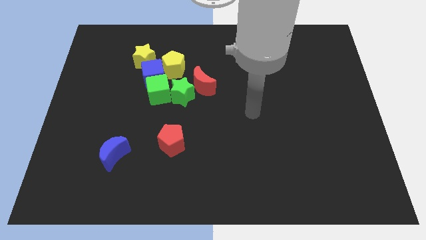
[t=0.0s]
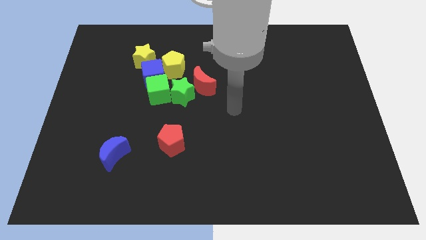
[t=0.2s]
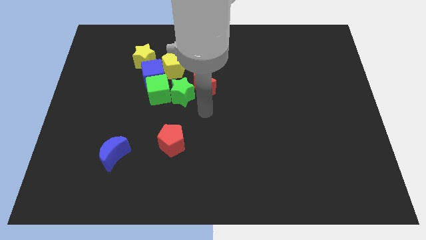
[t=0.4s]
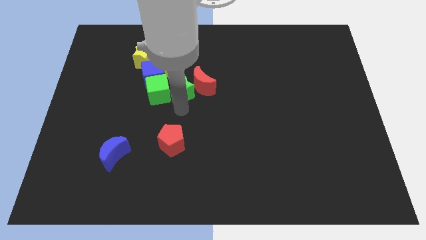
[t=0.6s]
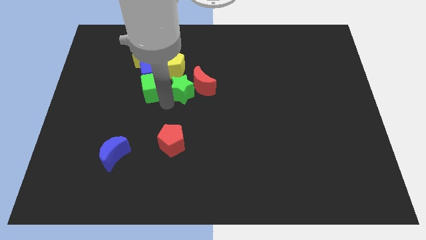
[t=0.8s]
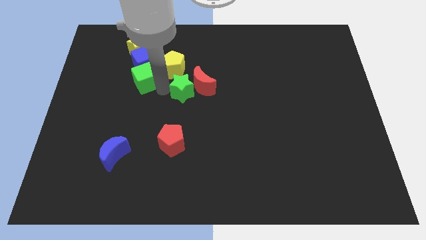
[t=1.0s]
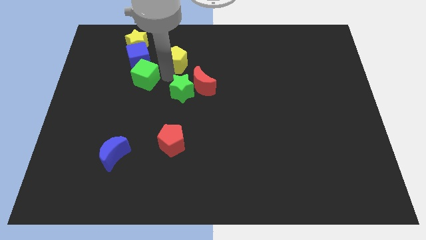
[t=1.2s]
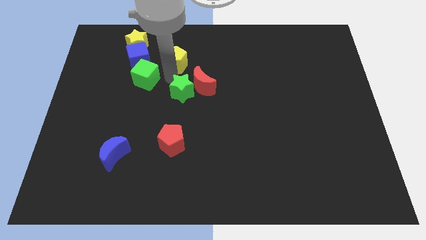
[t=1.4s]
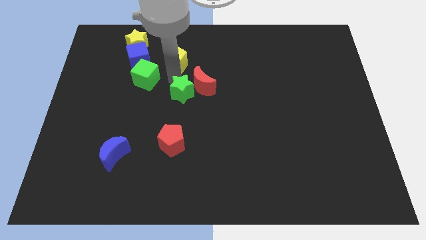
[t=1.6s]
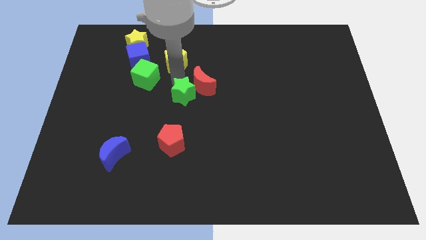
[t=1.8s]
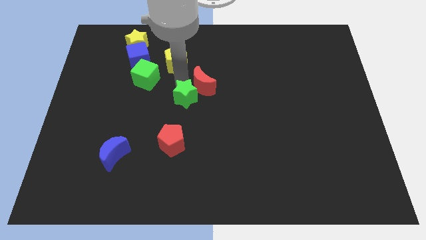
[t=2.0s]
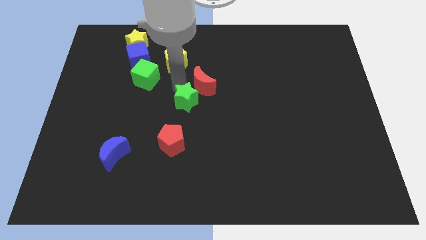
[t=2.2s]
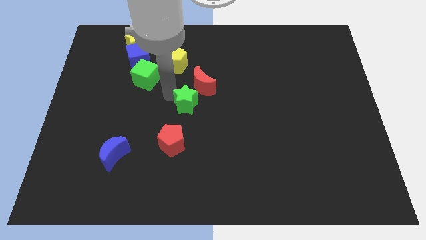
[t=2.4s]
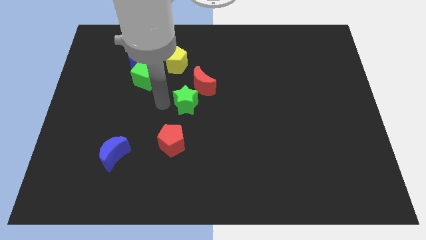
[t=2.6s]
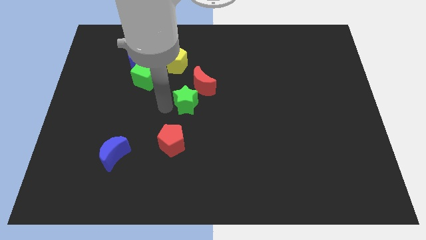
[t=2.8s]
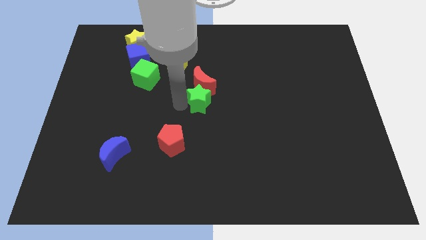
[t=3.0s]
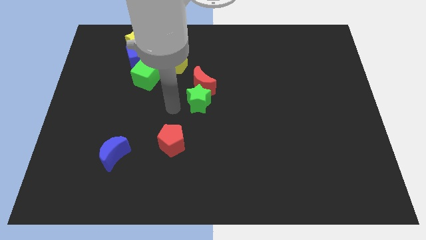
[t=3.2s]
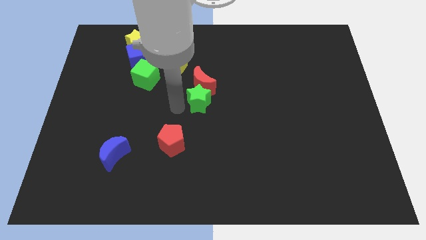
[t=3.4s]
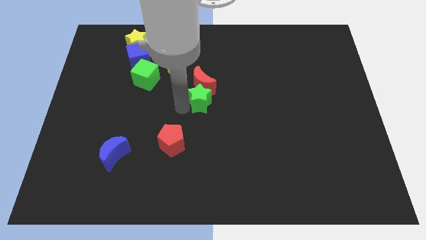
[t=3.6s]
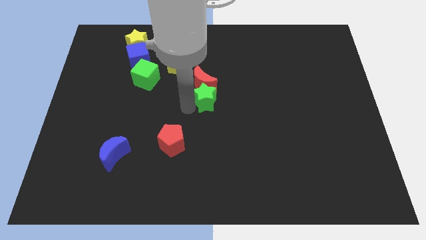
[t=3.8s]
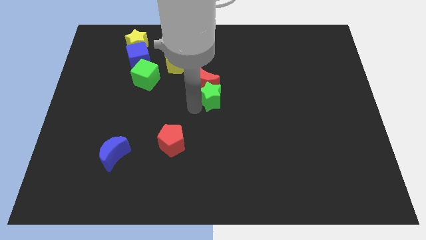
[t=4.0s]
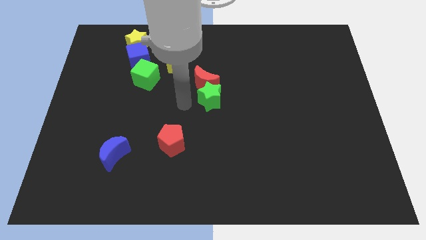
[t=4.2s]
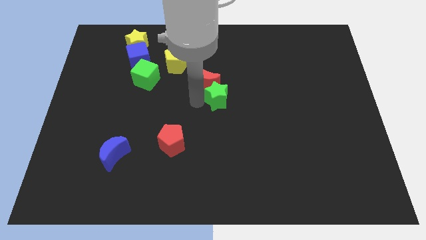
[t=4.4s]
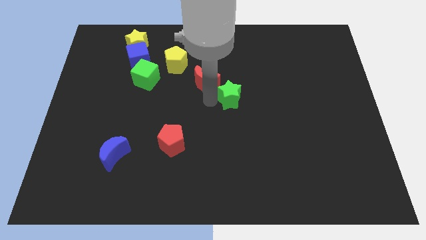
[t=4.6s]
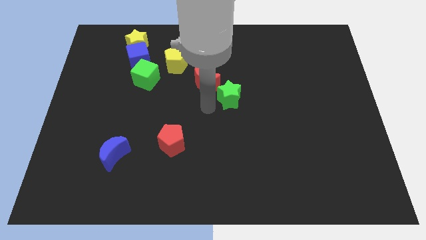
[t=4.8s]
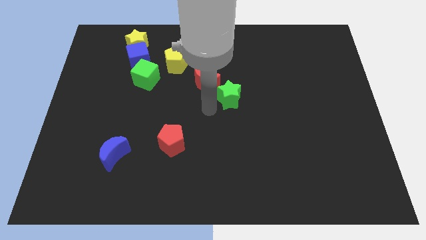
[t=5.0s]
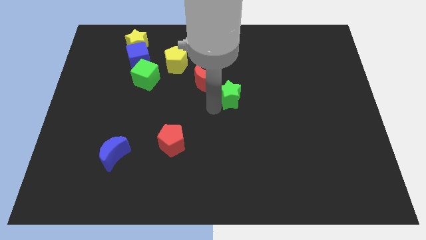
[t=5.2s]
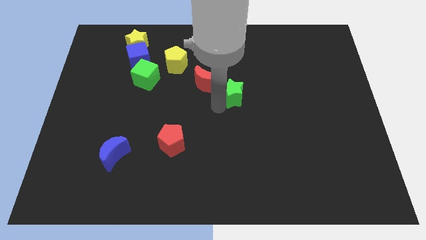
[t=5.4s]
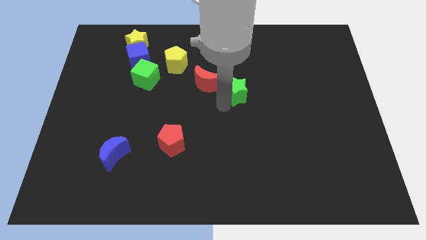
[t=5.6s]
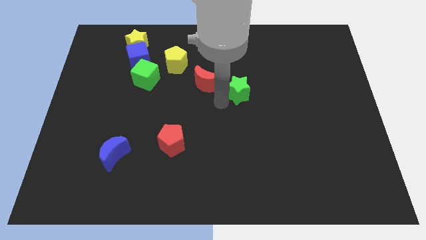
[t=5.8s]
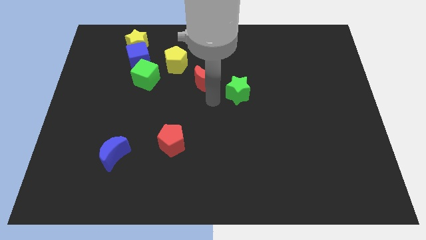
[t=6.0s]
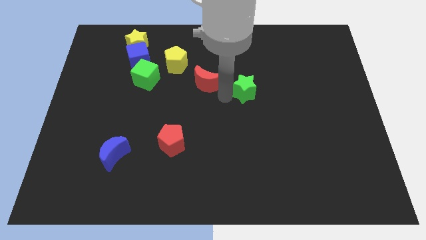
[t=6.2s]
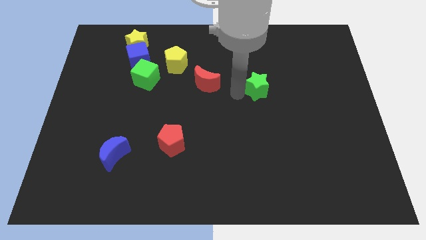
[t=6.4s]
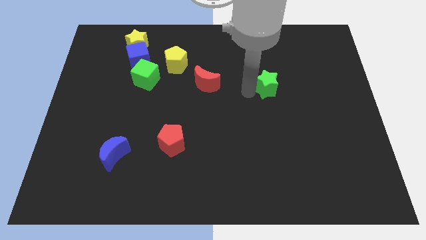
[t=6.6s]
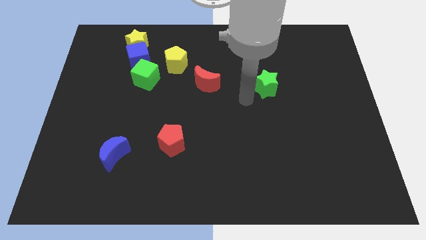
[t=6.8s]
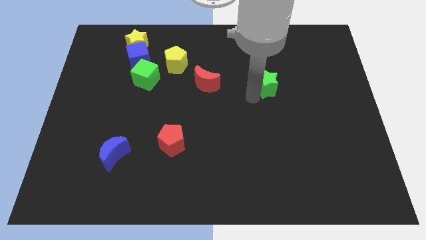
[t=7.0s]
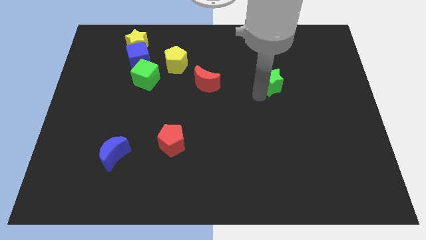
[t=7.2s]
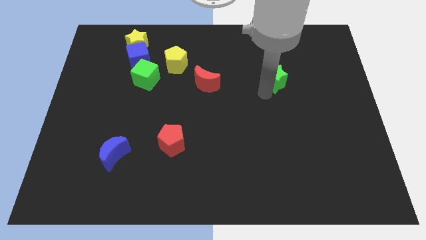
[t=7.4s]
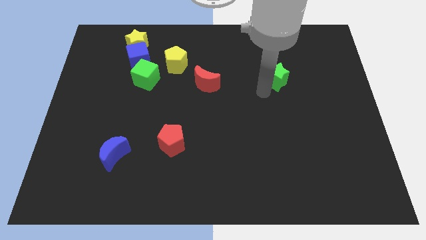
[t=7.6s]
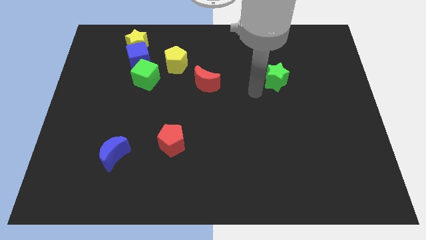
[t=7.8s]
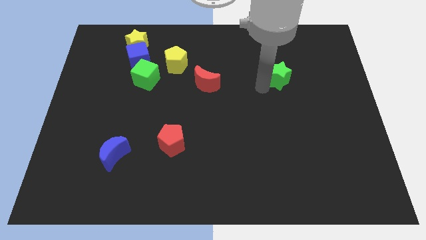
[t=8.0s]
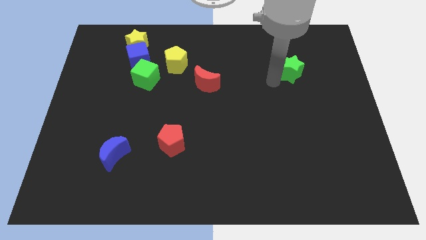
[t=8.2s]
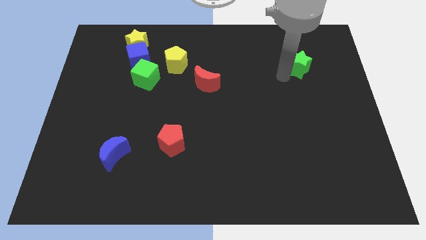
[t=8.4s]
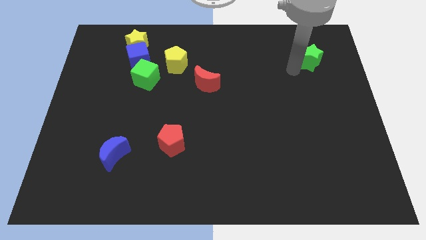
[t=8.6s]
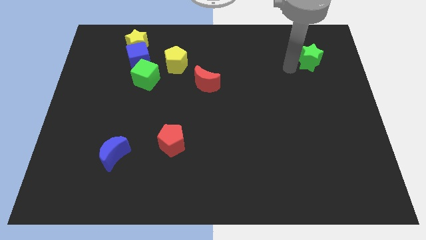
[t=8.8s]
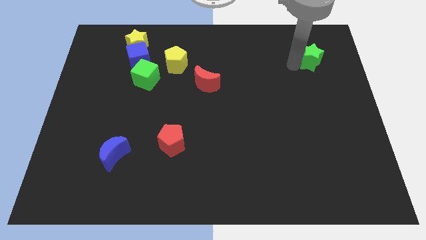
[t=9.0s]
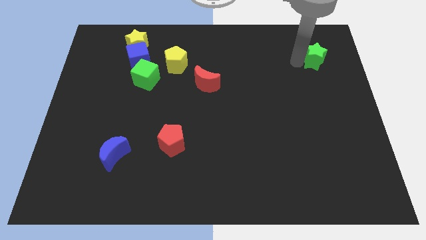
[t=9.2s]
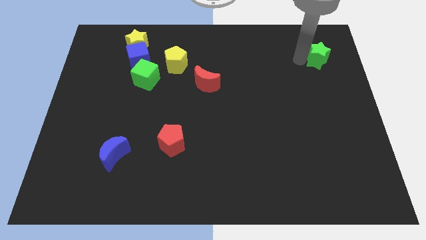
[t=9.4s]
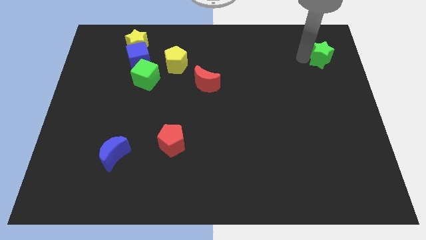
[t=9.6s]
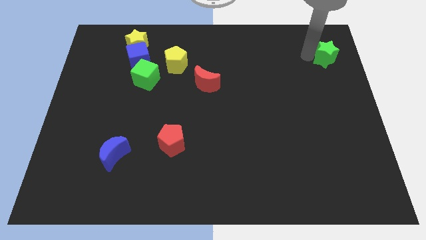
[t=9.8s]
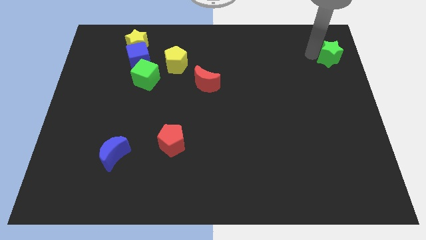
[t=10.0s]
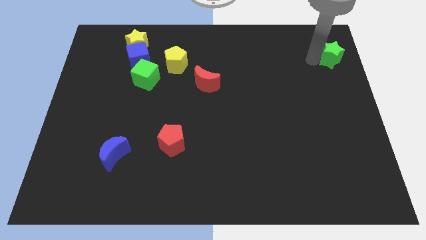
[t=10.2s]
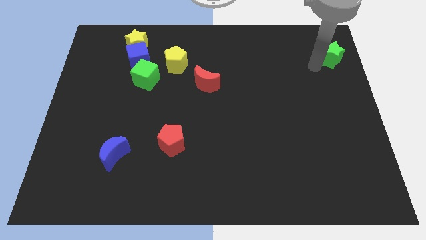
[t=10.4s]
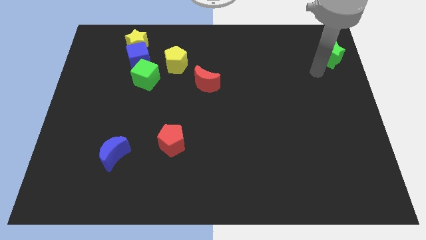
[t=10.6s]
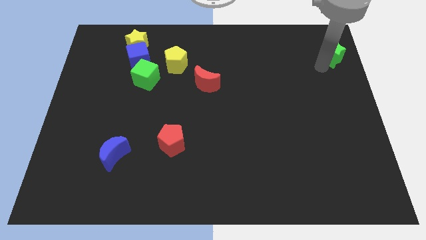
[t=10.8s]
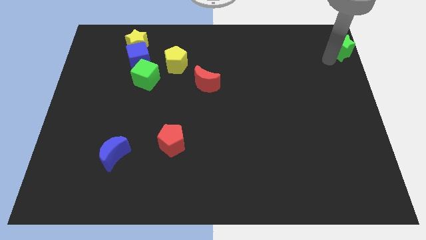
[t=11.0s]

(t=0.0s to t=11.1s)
move the green star to the top right of the board

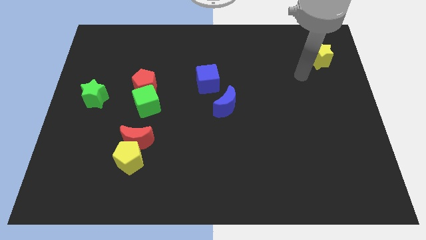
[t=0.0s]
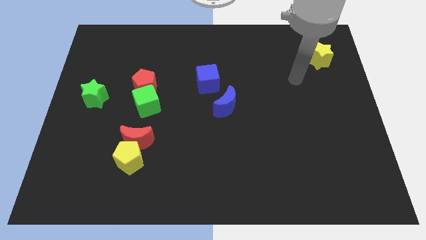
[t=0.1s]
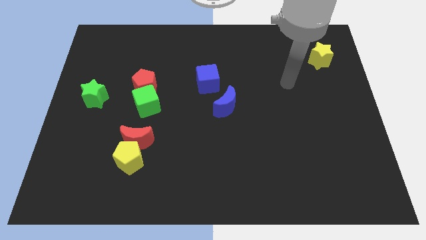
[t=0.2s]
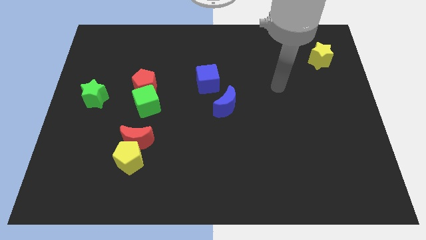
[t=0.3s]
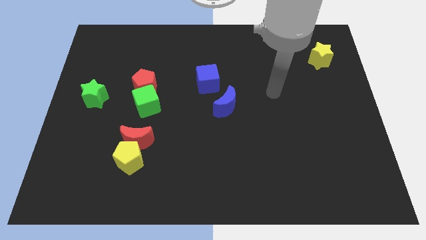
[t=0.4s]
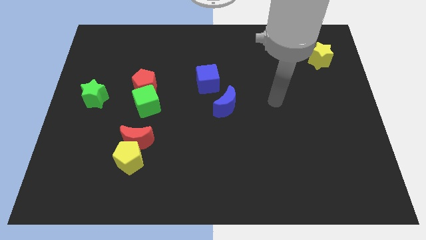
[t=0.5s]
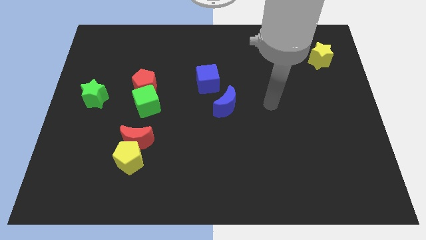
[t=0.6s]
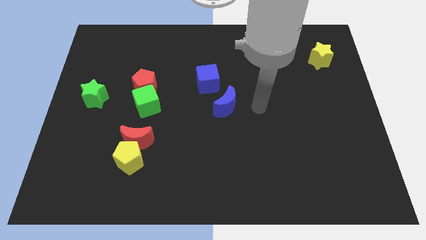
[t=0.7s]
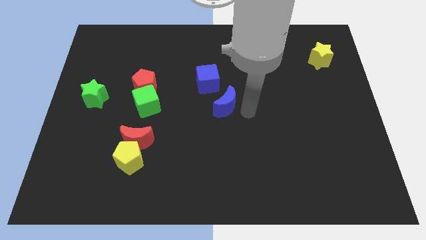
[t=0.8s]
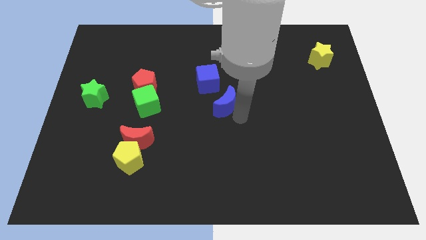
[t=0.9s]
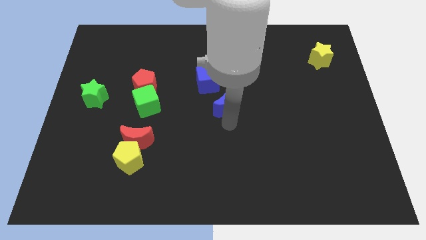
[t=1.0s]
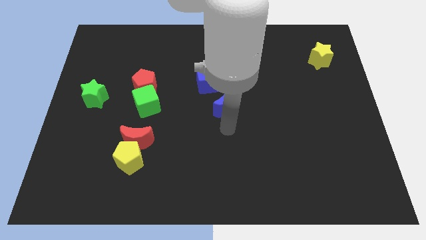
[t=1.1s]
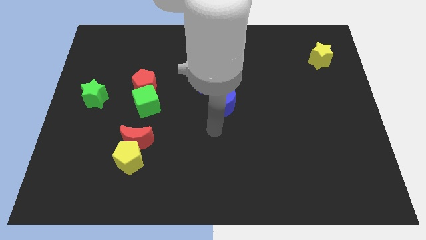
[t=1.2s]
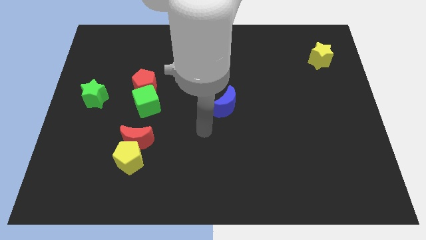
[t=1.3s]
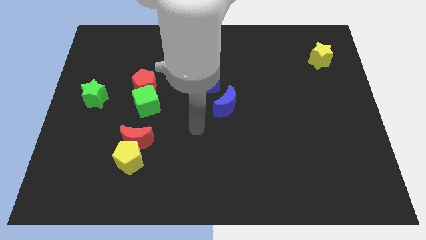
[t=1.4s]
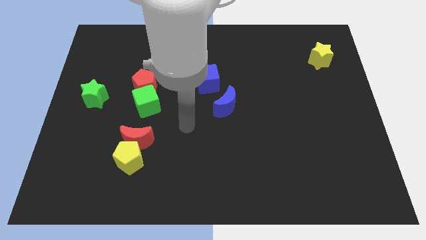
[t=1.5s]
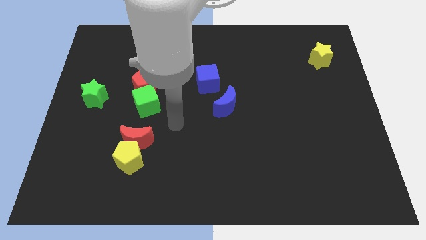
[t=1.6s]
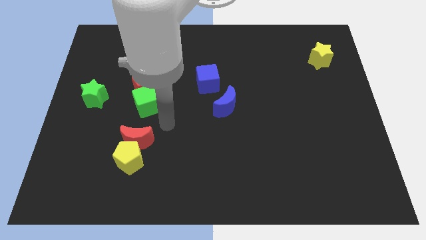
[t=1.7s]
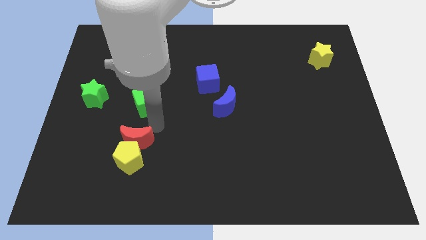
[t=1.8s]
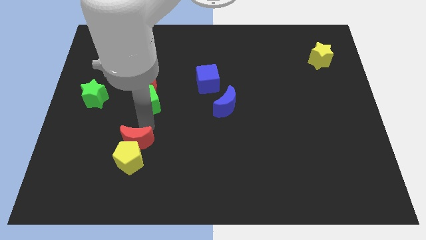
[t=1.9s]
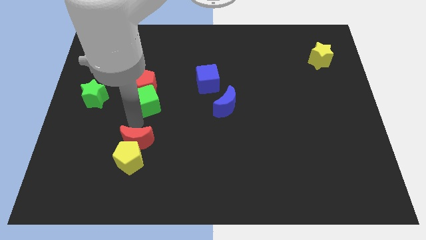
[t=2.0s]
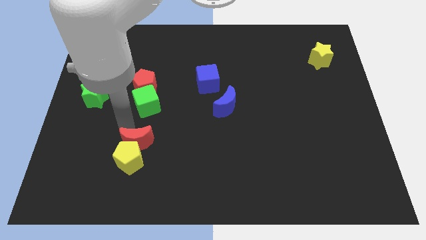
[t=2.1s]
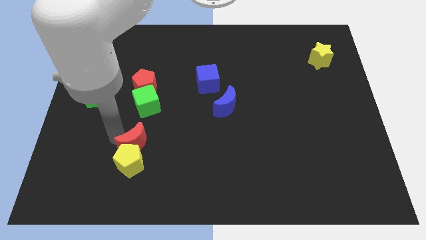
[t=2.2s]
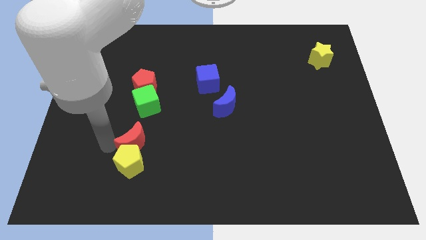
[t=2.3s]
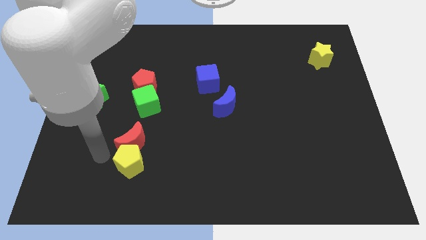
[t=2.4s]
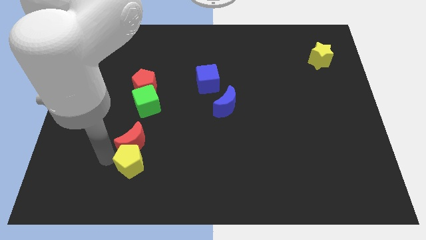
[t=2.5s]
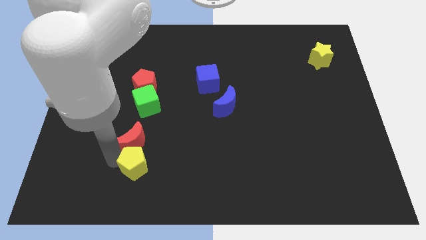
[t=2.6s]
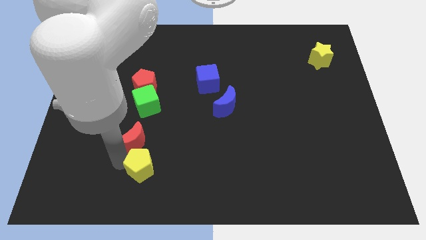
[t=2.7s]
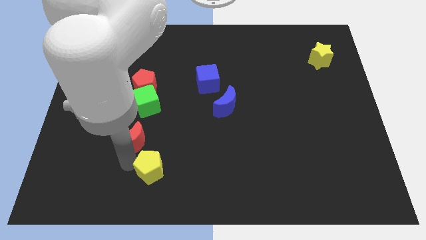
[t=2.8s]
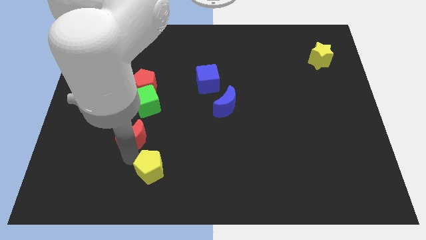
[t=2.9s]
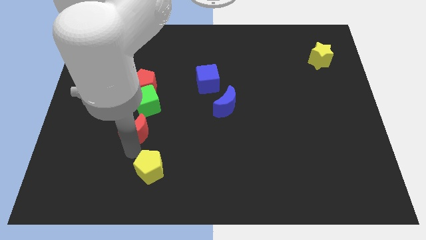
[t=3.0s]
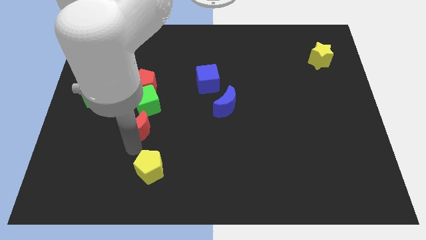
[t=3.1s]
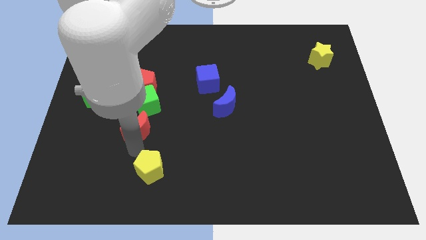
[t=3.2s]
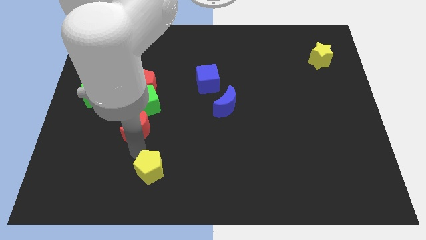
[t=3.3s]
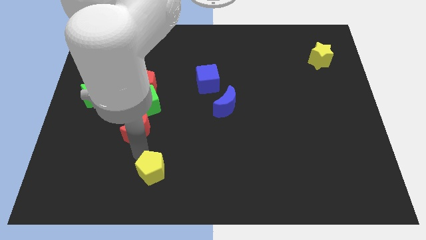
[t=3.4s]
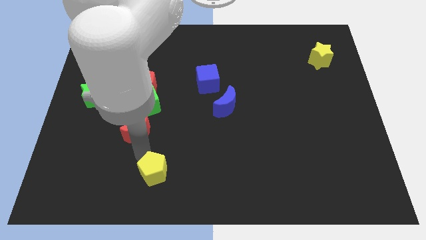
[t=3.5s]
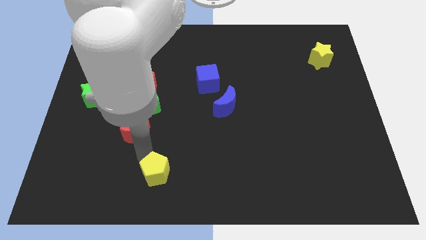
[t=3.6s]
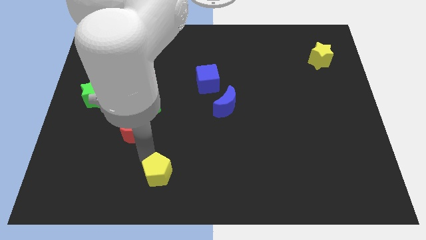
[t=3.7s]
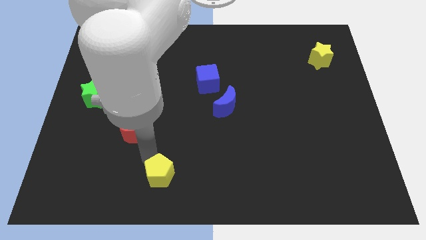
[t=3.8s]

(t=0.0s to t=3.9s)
put the yellow pentagon to the bottom
